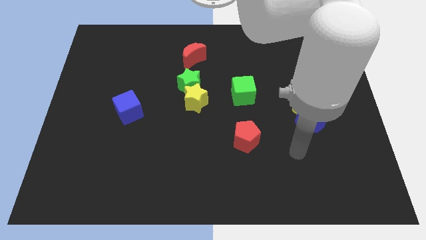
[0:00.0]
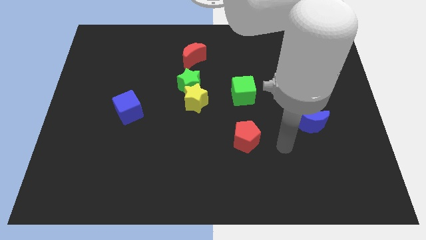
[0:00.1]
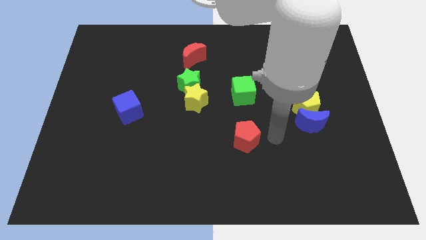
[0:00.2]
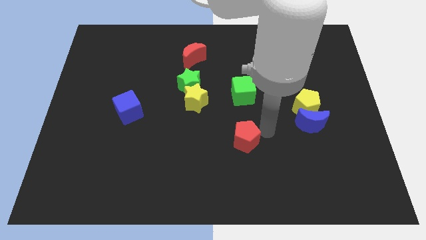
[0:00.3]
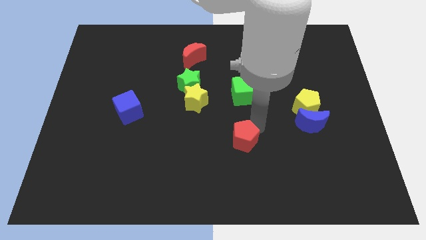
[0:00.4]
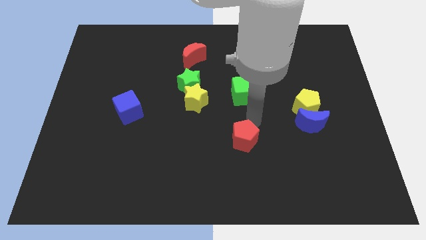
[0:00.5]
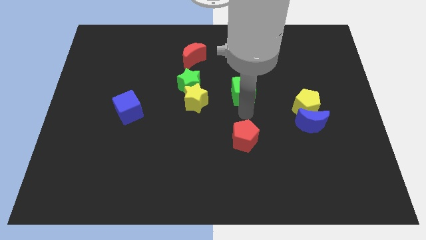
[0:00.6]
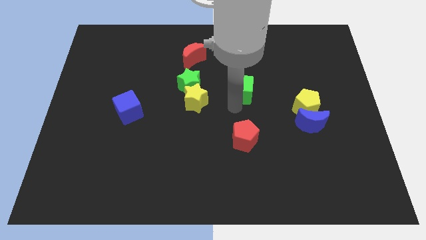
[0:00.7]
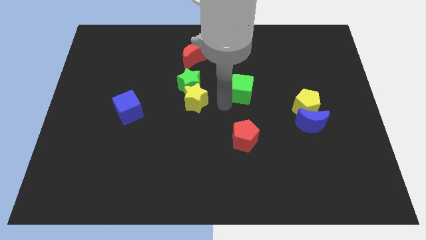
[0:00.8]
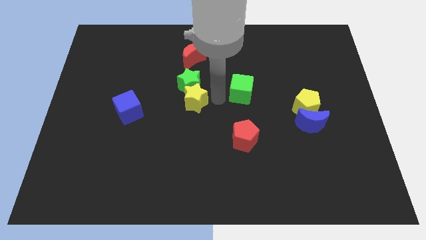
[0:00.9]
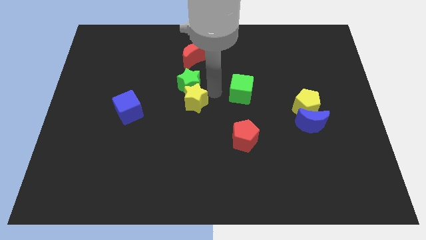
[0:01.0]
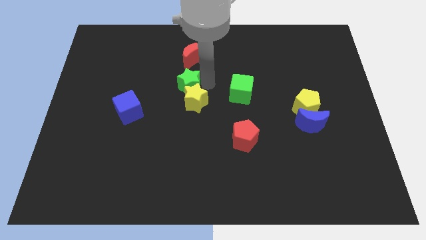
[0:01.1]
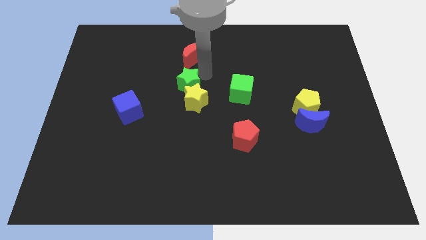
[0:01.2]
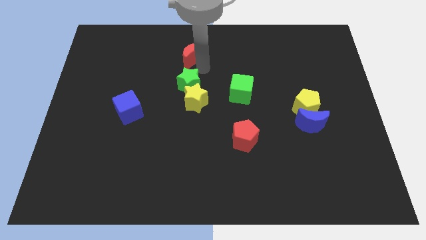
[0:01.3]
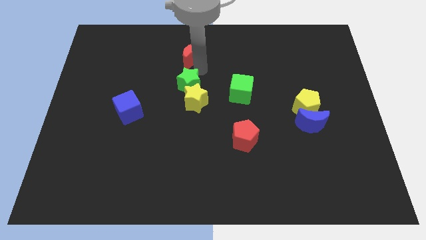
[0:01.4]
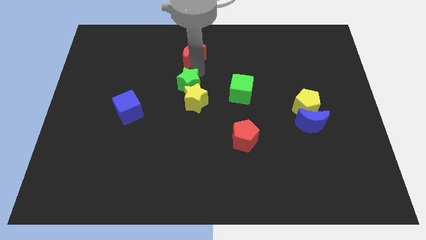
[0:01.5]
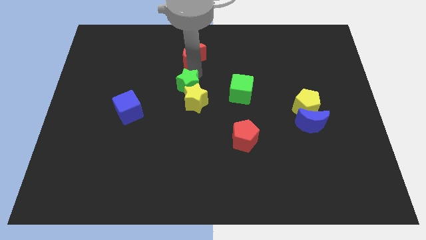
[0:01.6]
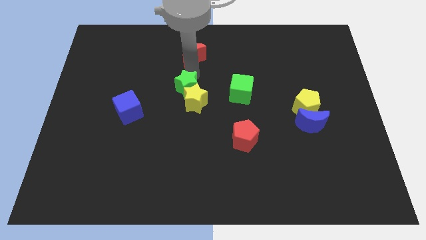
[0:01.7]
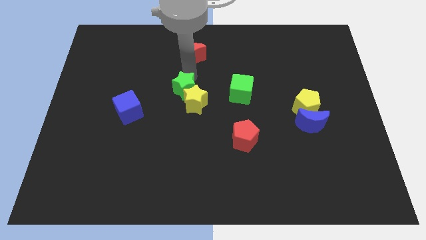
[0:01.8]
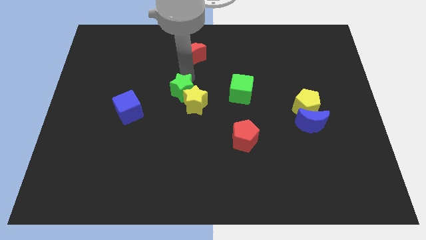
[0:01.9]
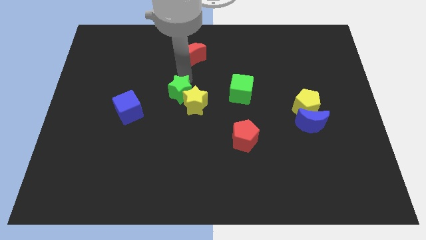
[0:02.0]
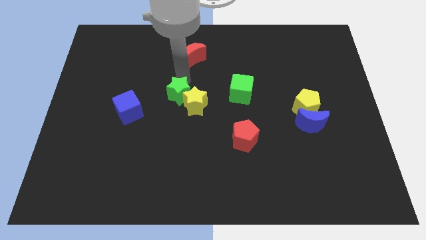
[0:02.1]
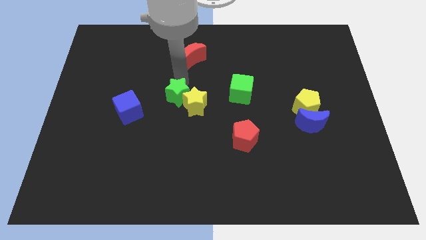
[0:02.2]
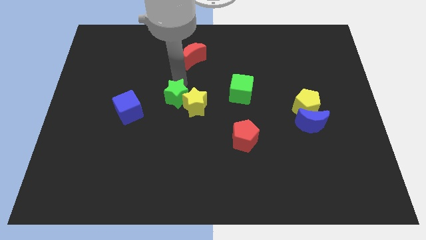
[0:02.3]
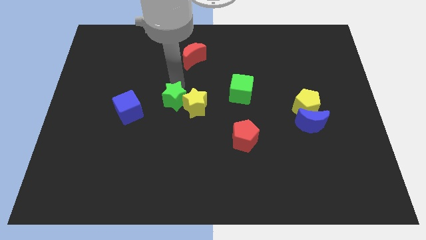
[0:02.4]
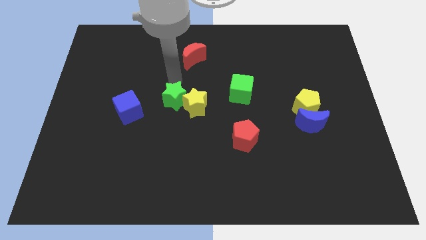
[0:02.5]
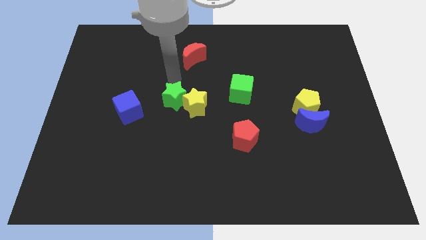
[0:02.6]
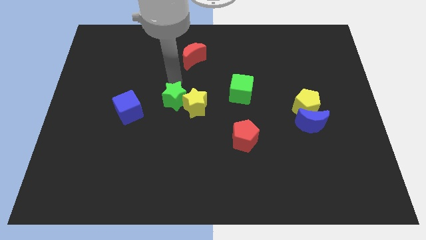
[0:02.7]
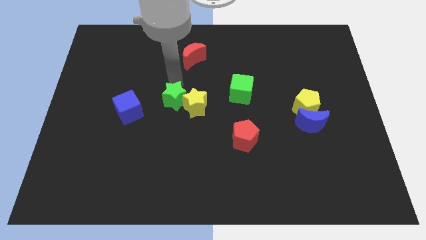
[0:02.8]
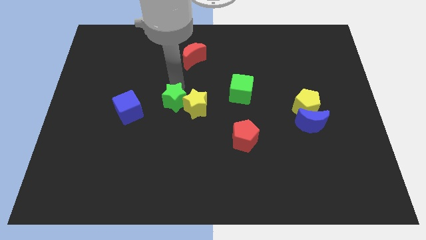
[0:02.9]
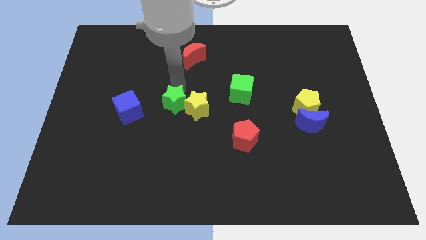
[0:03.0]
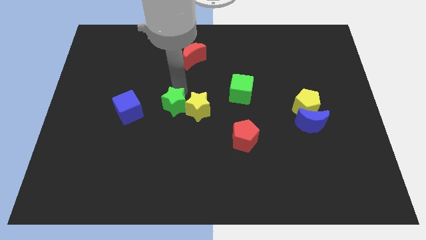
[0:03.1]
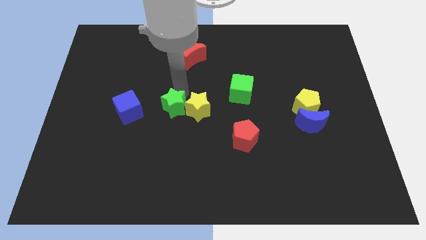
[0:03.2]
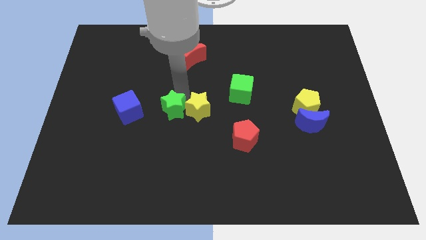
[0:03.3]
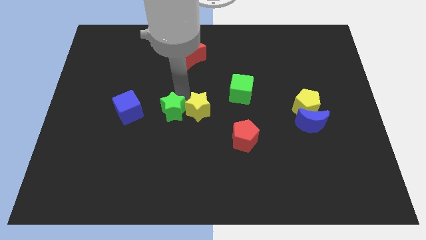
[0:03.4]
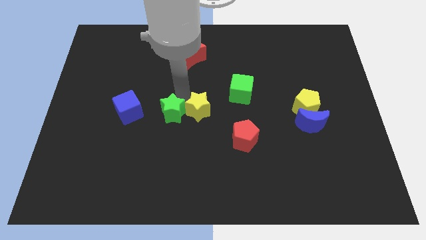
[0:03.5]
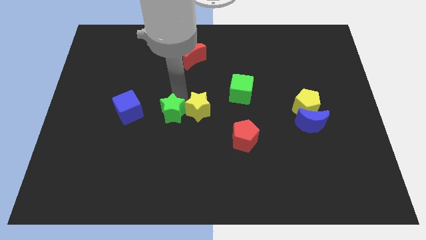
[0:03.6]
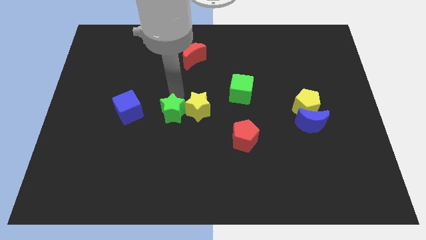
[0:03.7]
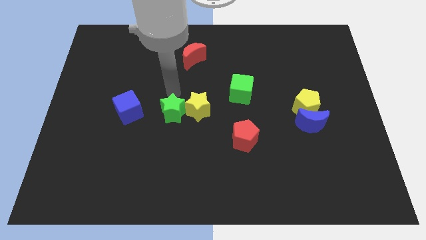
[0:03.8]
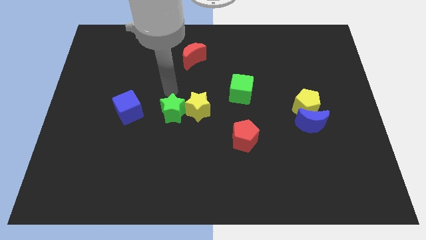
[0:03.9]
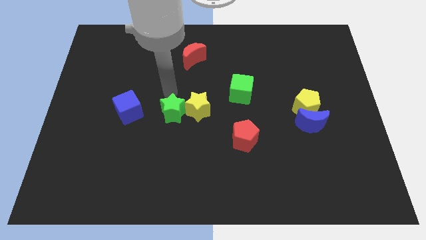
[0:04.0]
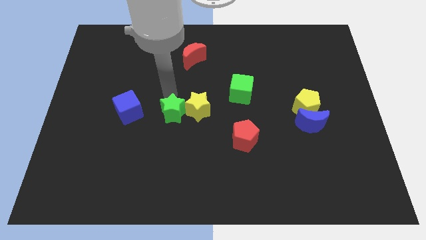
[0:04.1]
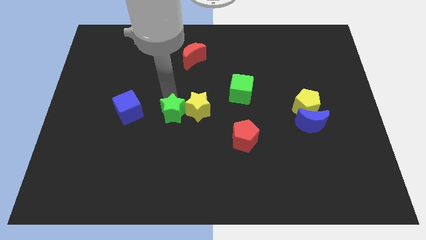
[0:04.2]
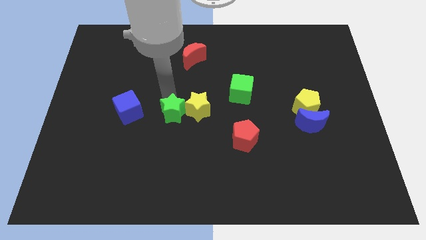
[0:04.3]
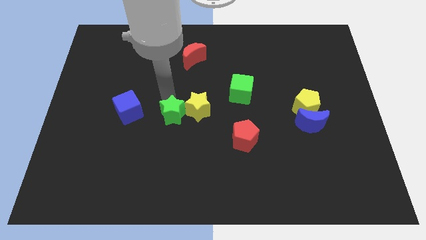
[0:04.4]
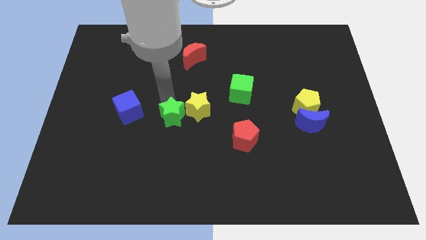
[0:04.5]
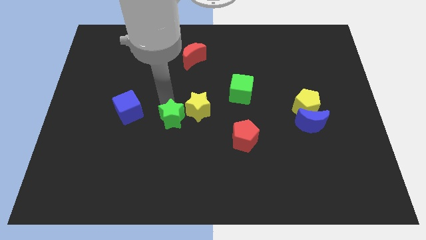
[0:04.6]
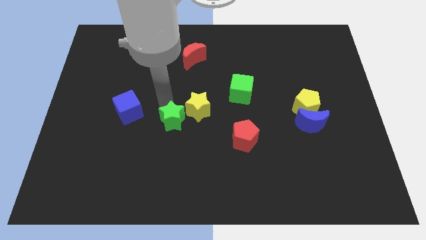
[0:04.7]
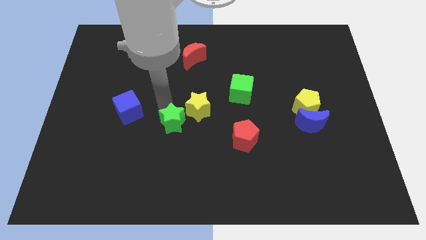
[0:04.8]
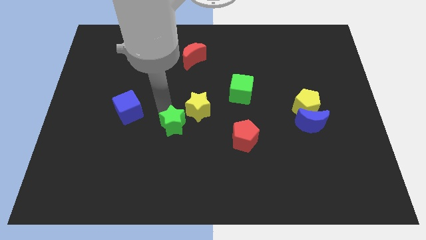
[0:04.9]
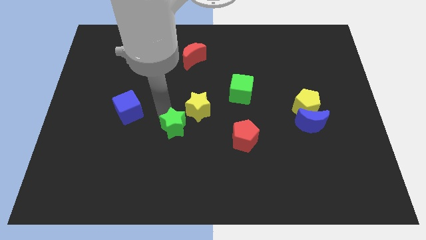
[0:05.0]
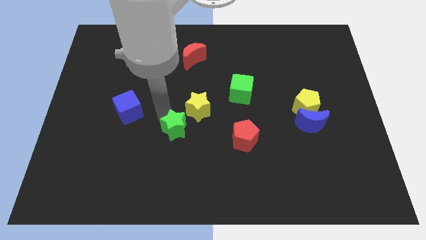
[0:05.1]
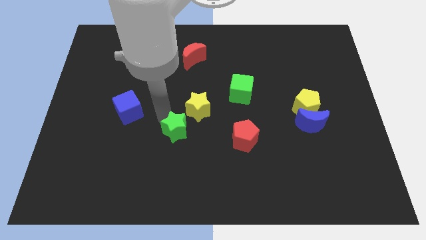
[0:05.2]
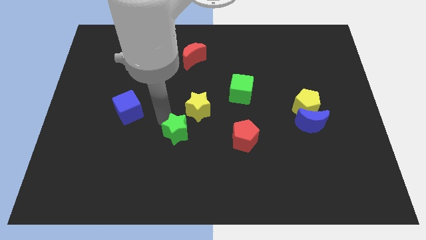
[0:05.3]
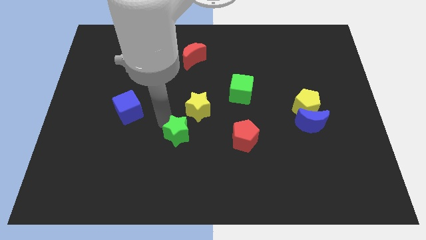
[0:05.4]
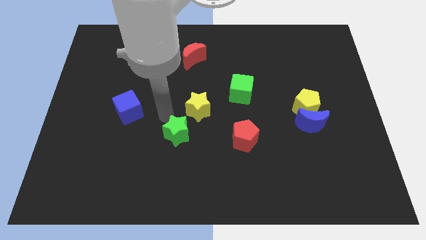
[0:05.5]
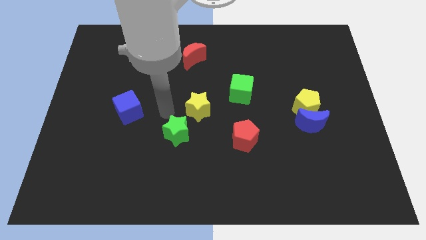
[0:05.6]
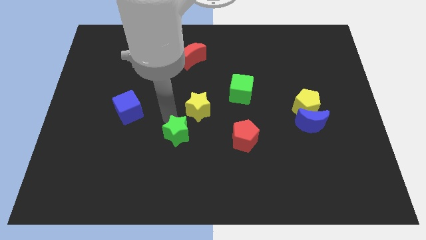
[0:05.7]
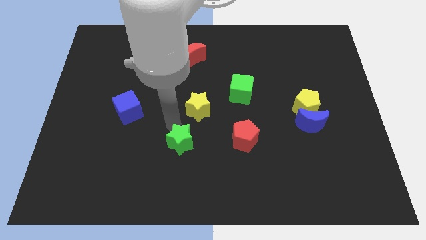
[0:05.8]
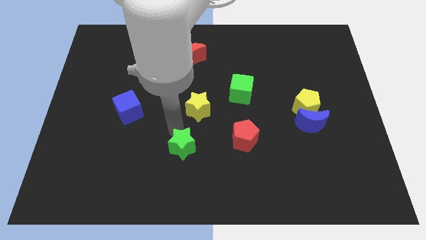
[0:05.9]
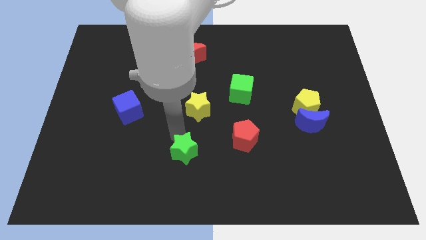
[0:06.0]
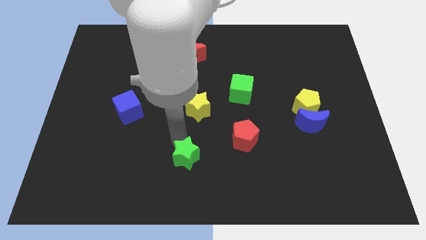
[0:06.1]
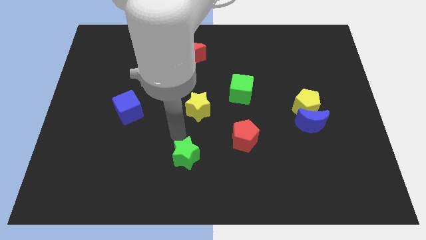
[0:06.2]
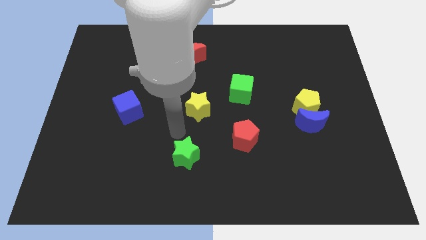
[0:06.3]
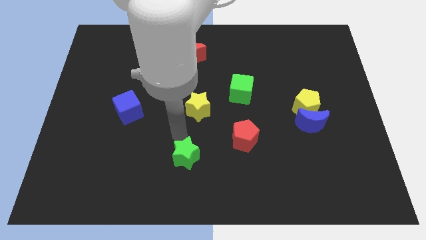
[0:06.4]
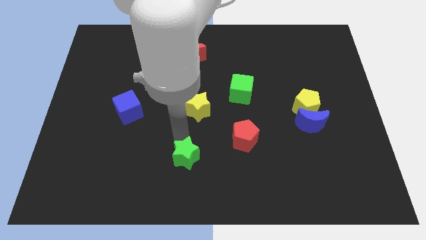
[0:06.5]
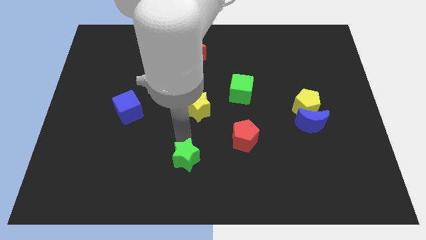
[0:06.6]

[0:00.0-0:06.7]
push the green star to the bottom side
